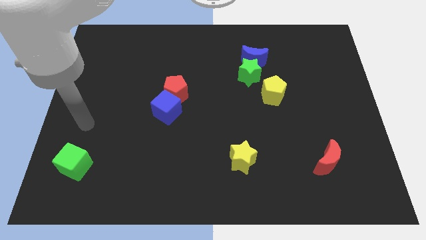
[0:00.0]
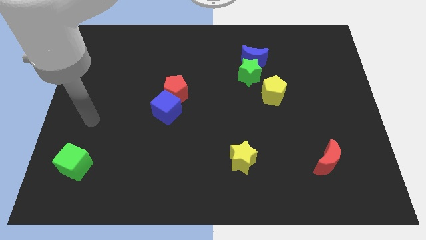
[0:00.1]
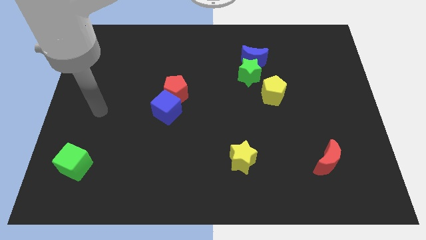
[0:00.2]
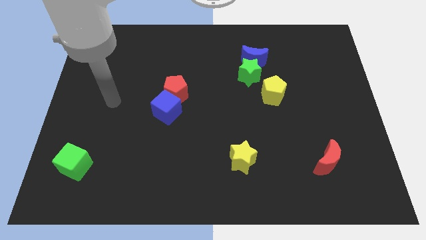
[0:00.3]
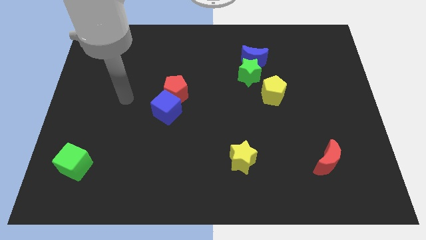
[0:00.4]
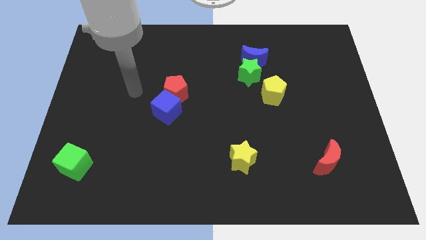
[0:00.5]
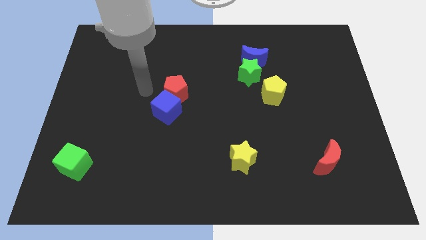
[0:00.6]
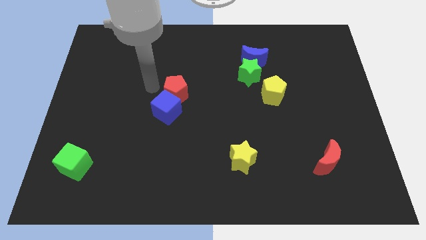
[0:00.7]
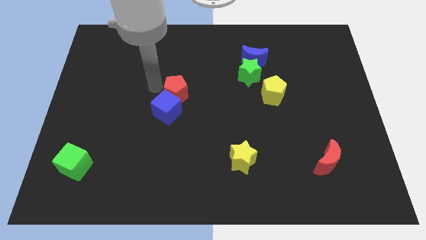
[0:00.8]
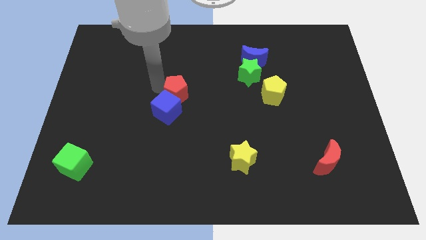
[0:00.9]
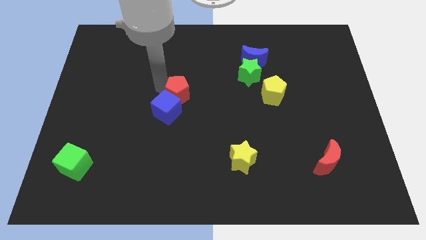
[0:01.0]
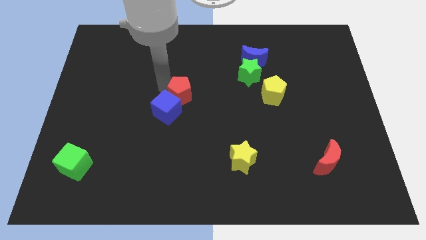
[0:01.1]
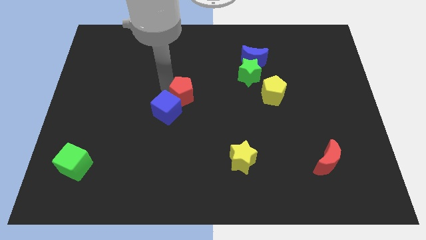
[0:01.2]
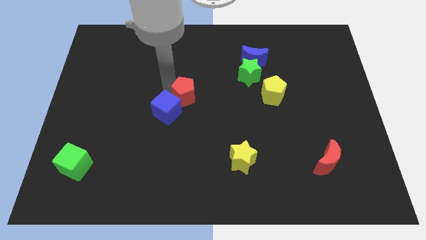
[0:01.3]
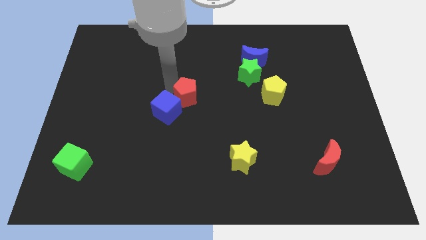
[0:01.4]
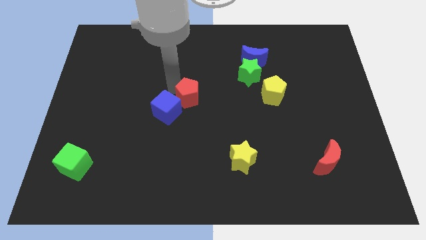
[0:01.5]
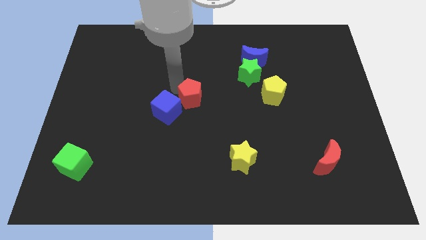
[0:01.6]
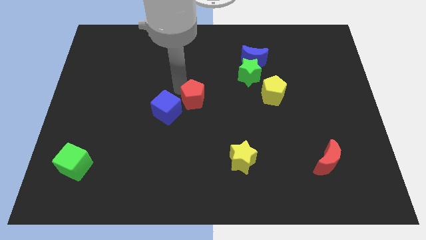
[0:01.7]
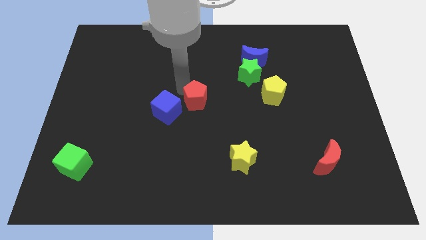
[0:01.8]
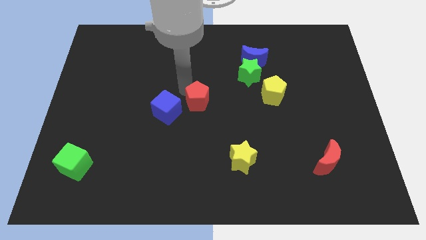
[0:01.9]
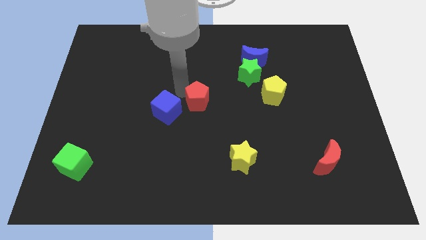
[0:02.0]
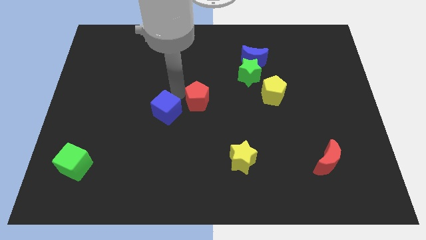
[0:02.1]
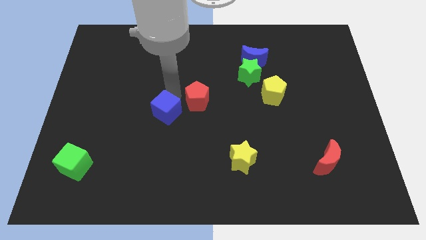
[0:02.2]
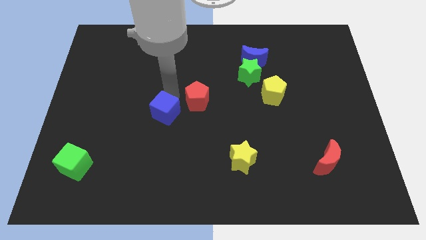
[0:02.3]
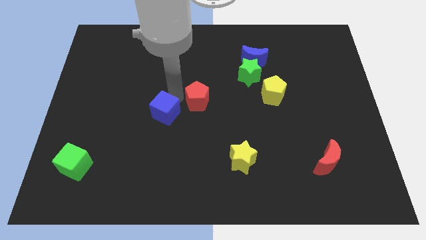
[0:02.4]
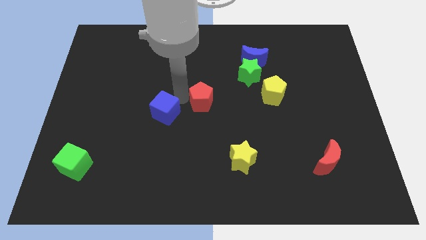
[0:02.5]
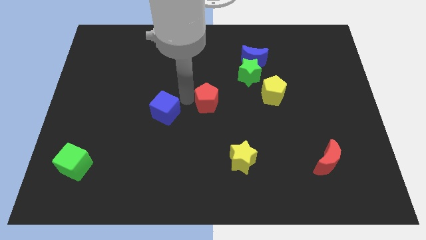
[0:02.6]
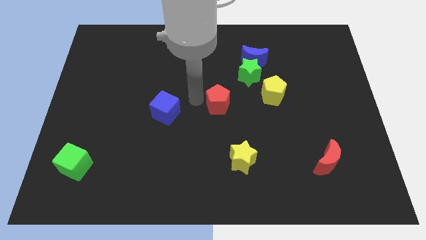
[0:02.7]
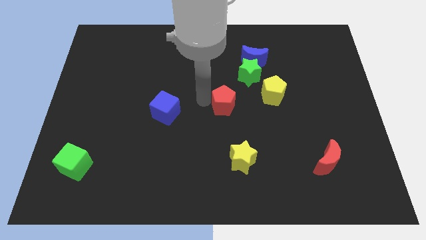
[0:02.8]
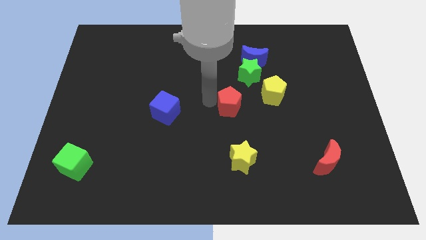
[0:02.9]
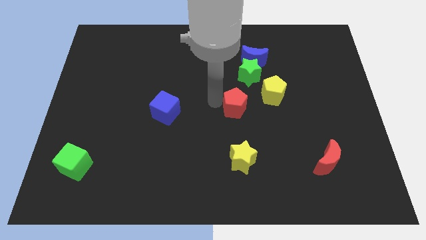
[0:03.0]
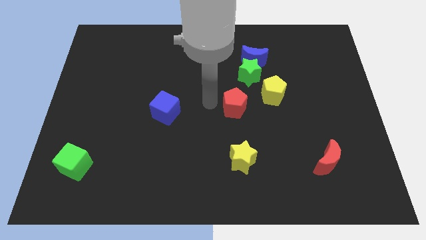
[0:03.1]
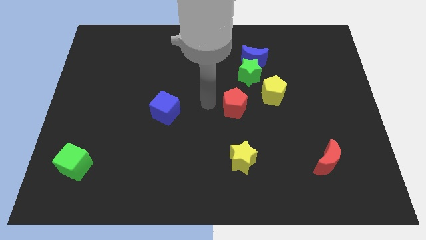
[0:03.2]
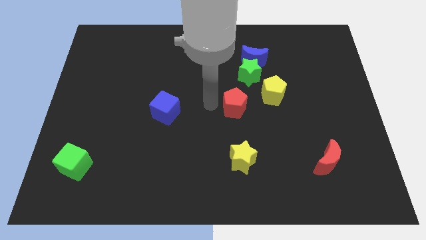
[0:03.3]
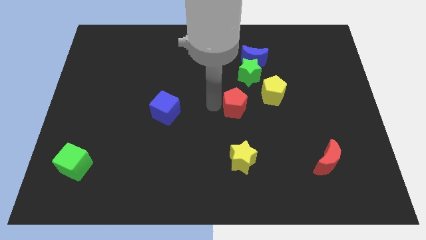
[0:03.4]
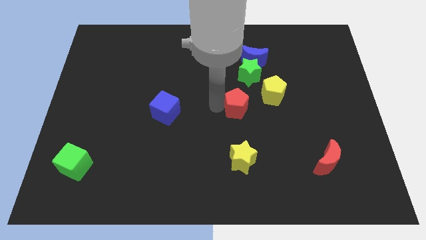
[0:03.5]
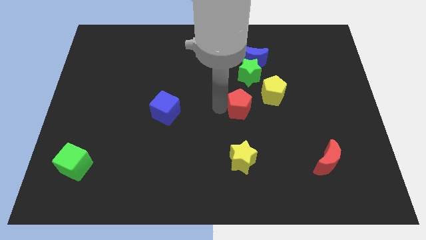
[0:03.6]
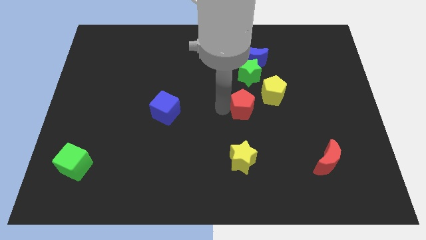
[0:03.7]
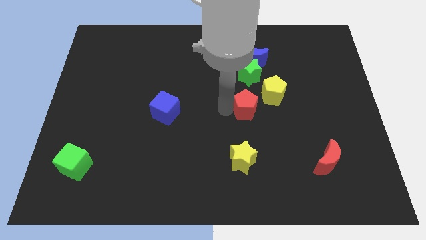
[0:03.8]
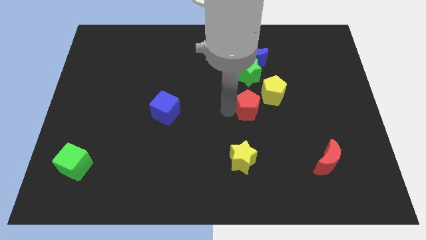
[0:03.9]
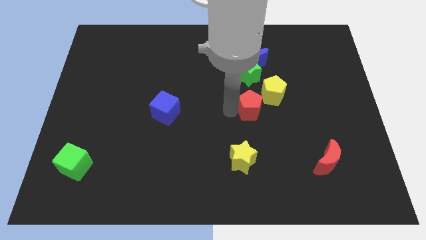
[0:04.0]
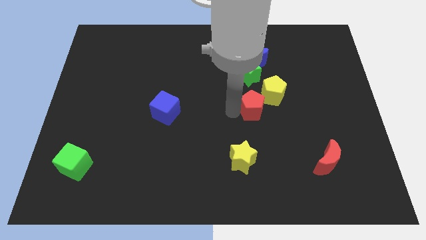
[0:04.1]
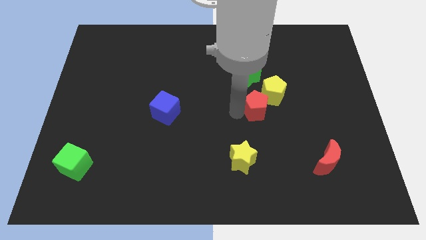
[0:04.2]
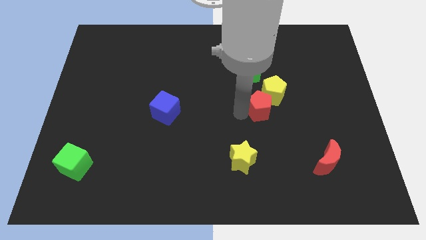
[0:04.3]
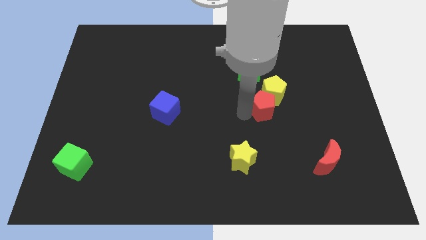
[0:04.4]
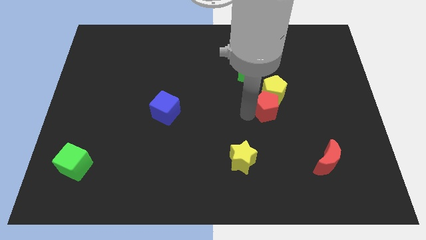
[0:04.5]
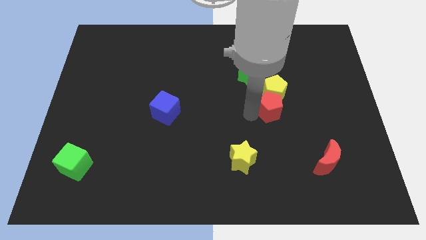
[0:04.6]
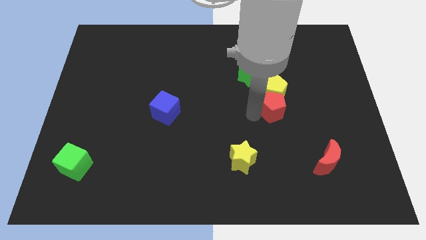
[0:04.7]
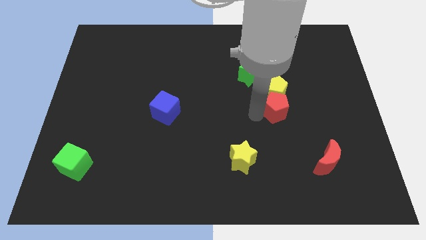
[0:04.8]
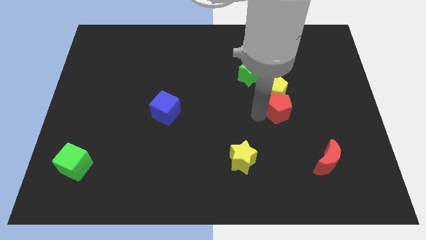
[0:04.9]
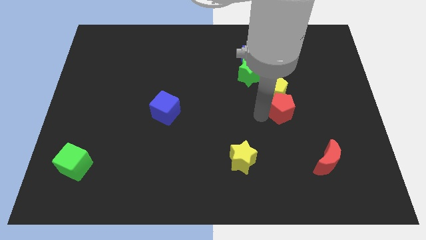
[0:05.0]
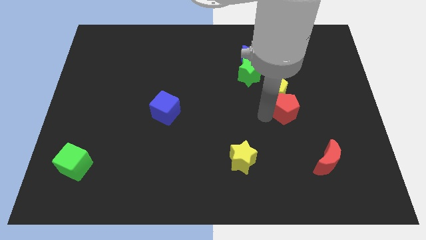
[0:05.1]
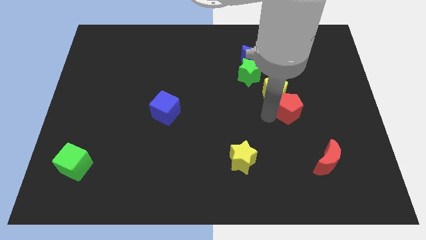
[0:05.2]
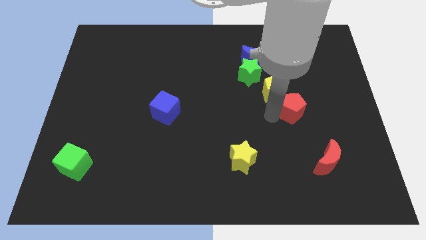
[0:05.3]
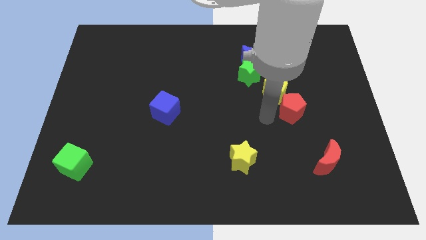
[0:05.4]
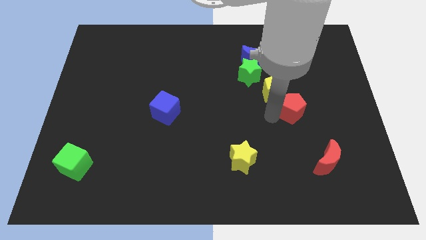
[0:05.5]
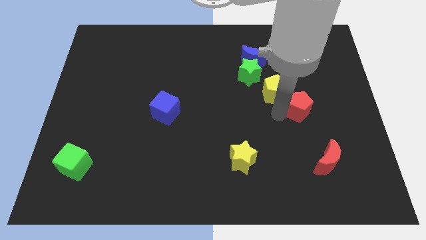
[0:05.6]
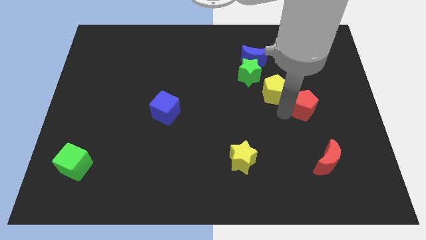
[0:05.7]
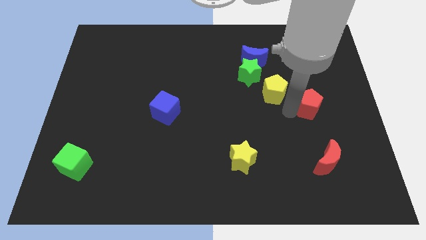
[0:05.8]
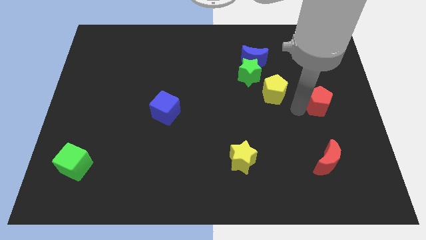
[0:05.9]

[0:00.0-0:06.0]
push the red pentagon to the right side

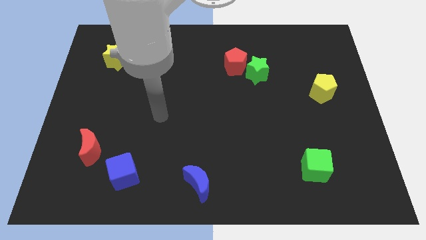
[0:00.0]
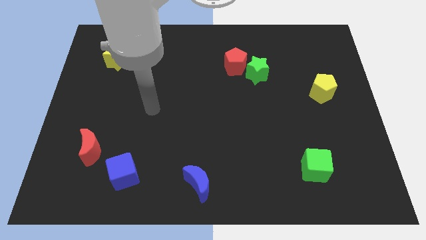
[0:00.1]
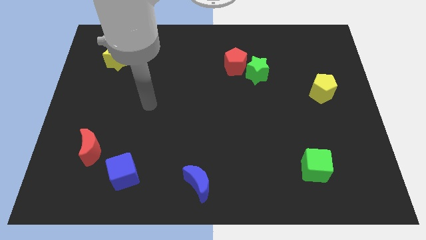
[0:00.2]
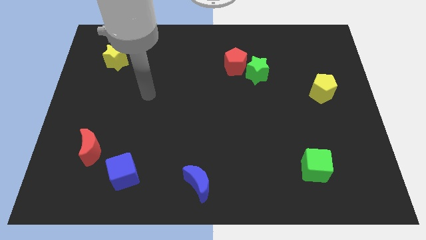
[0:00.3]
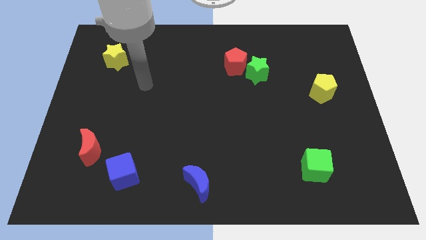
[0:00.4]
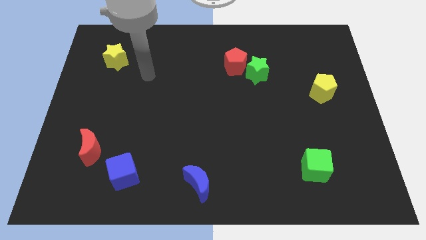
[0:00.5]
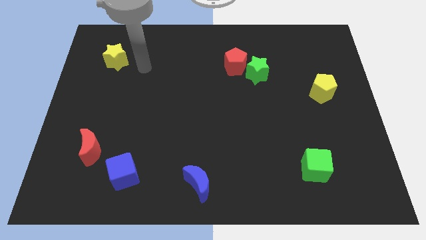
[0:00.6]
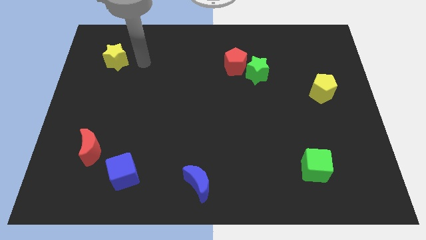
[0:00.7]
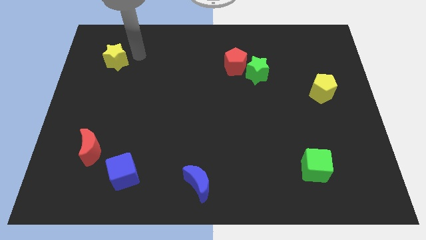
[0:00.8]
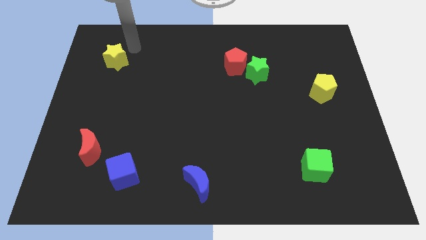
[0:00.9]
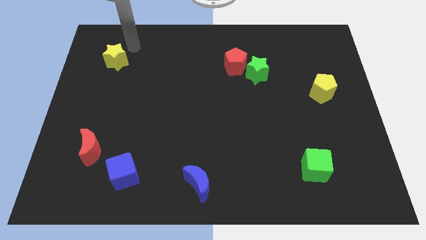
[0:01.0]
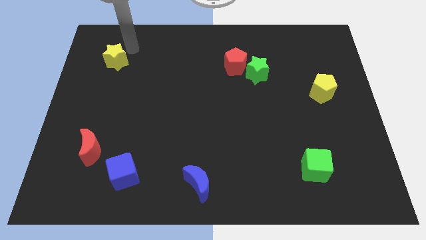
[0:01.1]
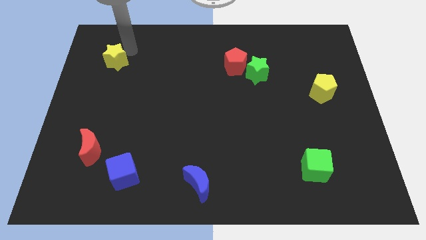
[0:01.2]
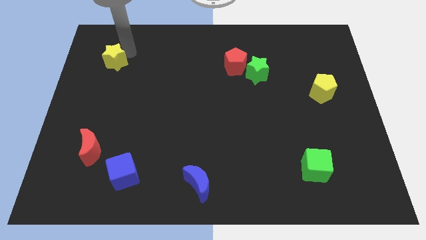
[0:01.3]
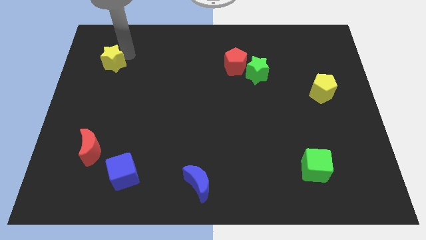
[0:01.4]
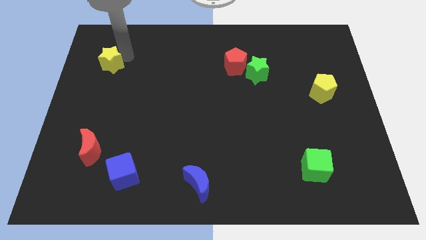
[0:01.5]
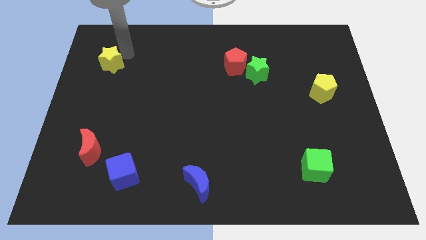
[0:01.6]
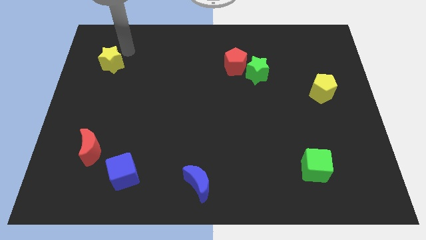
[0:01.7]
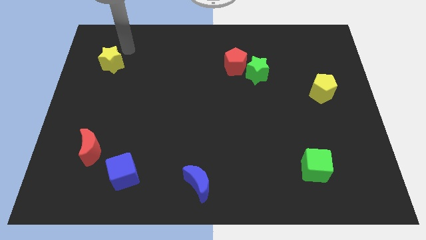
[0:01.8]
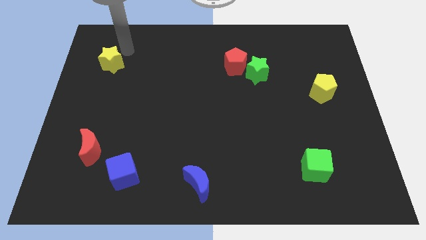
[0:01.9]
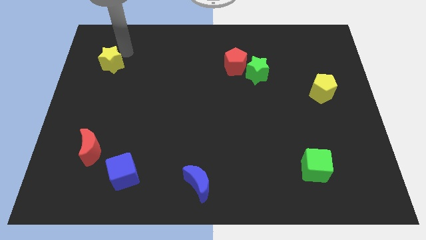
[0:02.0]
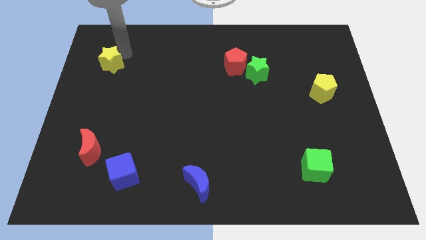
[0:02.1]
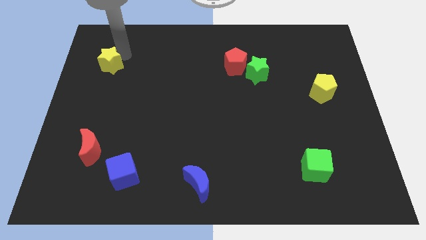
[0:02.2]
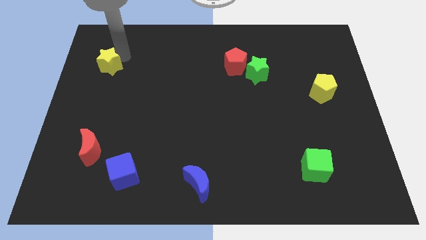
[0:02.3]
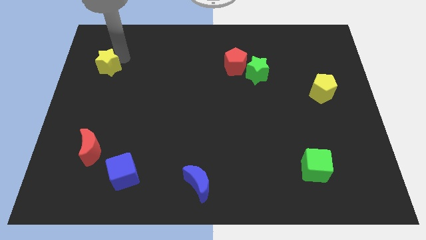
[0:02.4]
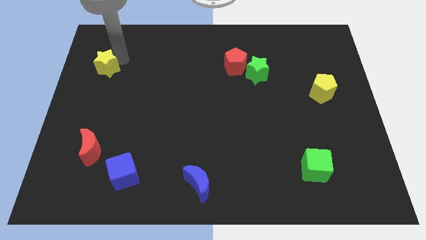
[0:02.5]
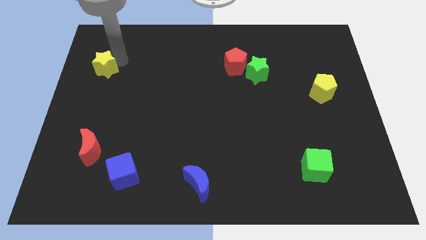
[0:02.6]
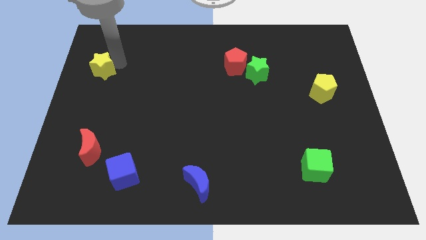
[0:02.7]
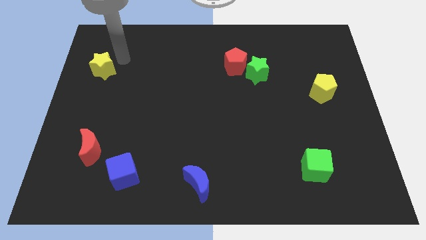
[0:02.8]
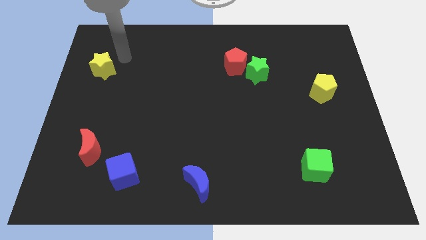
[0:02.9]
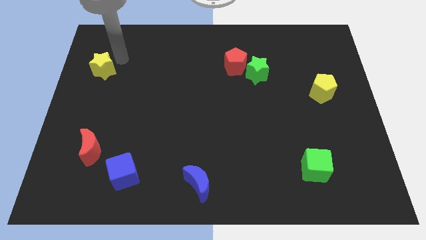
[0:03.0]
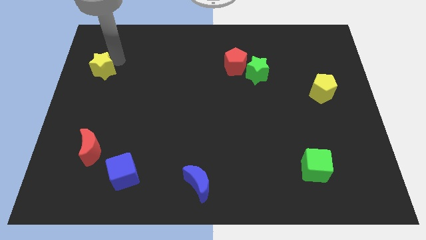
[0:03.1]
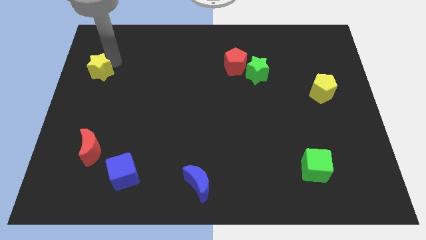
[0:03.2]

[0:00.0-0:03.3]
put the yellow star to the center left
